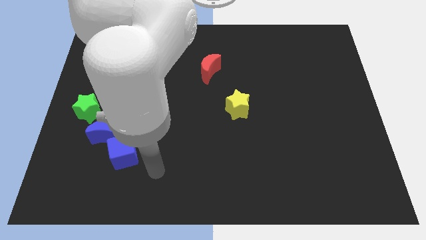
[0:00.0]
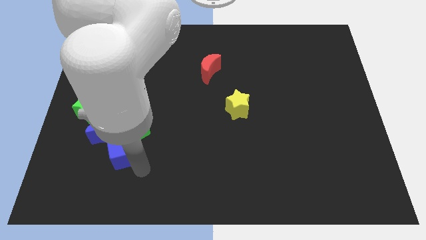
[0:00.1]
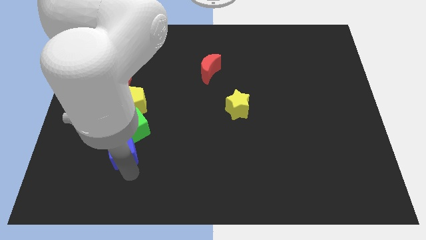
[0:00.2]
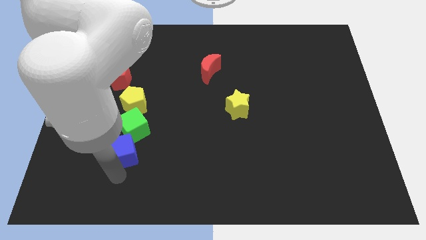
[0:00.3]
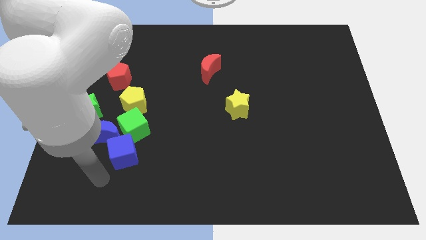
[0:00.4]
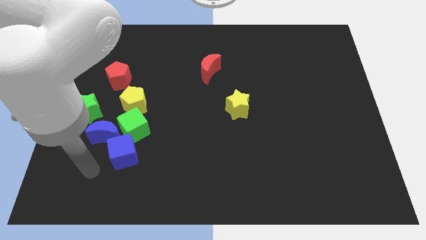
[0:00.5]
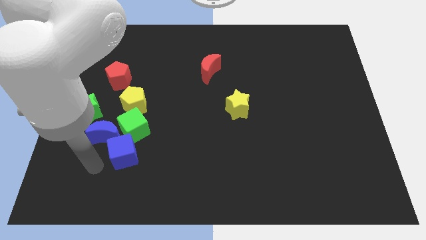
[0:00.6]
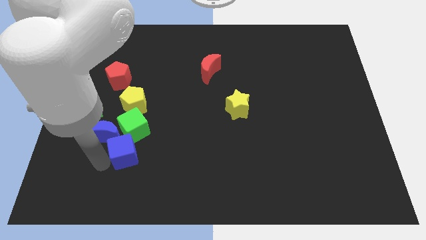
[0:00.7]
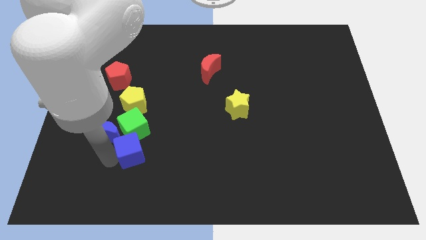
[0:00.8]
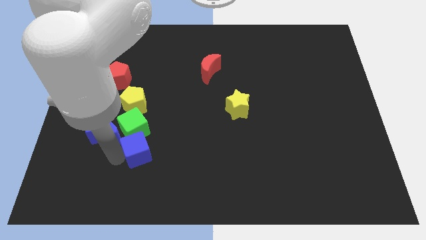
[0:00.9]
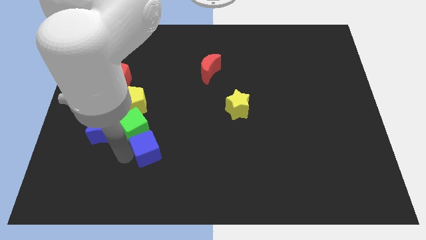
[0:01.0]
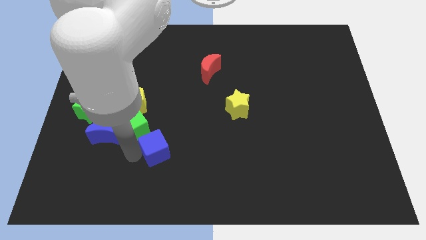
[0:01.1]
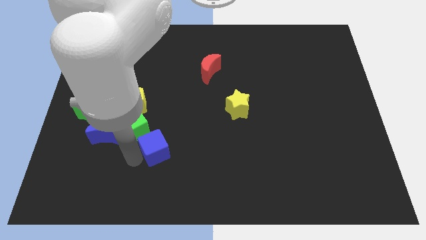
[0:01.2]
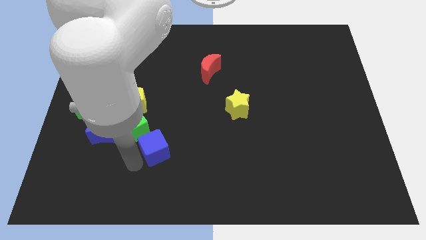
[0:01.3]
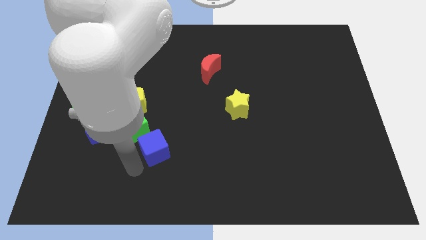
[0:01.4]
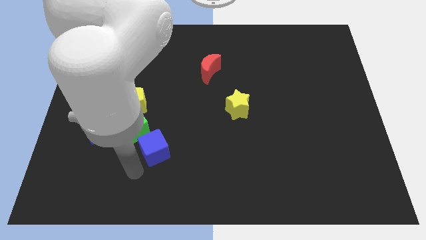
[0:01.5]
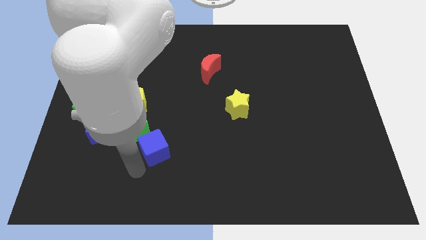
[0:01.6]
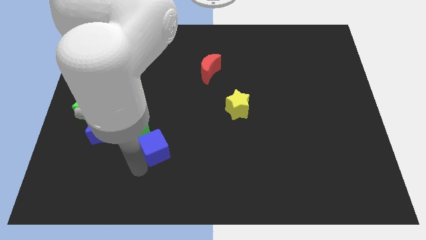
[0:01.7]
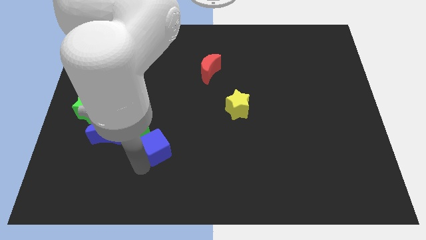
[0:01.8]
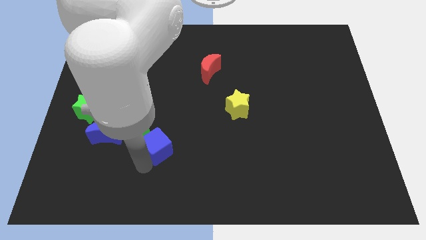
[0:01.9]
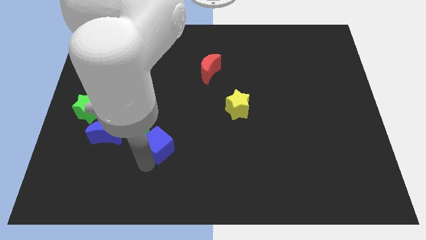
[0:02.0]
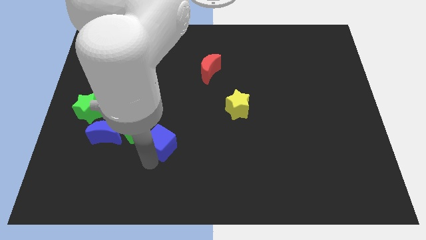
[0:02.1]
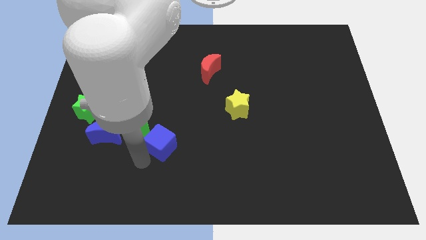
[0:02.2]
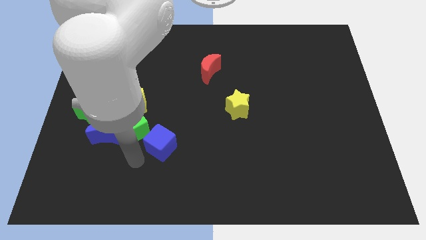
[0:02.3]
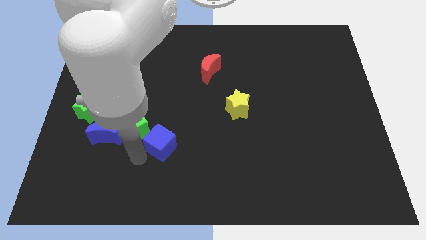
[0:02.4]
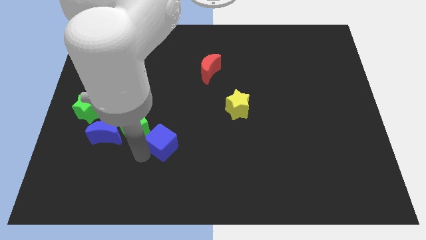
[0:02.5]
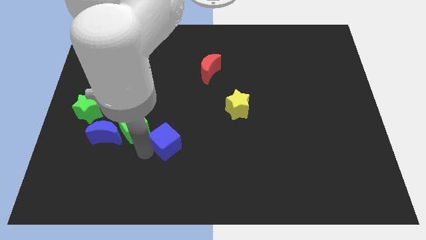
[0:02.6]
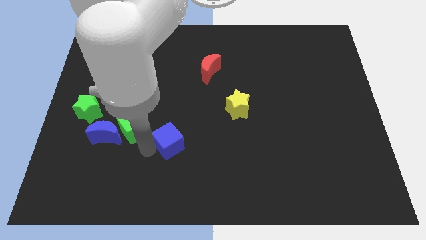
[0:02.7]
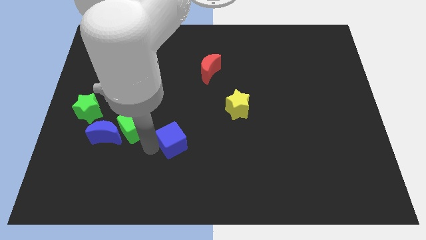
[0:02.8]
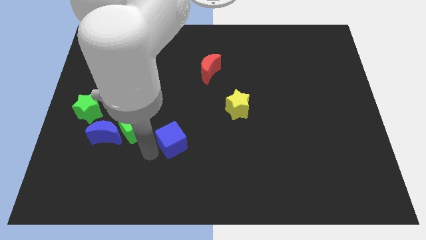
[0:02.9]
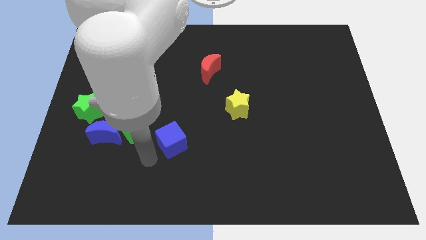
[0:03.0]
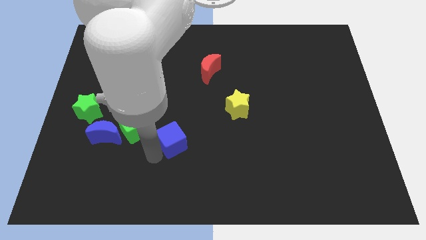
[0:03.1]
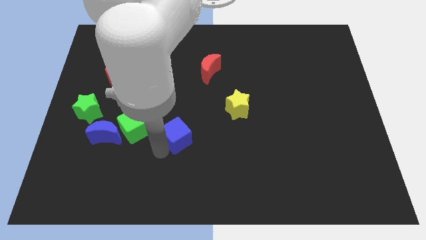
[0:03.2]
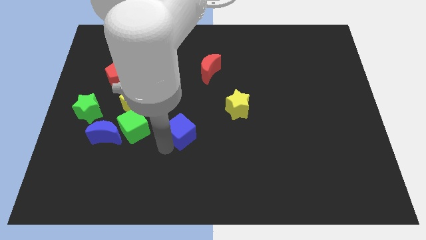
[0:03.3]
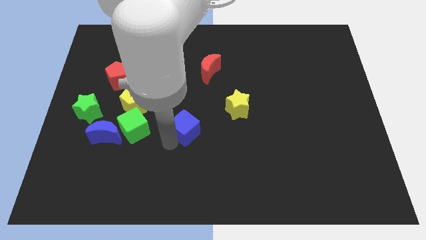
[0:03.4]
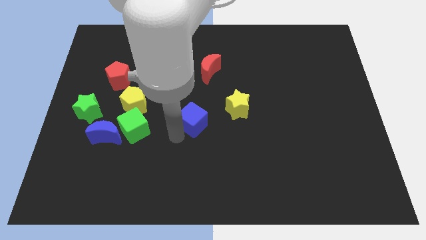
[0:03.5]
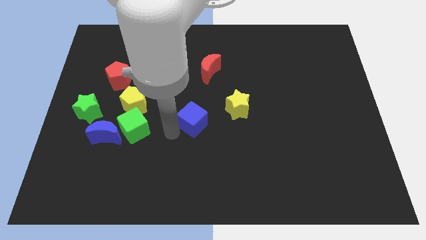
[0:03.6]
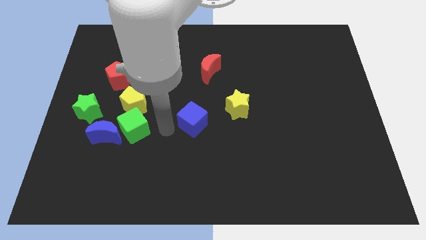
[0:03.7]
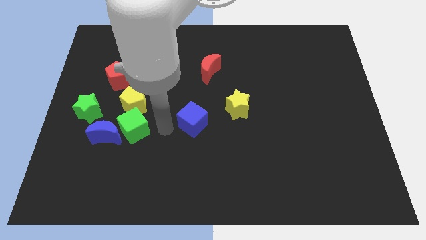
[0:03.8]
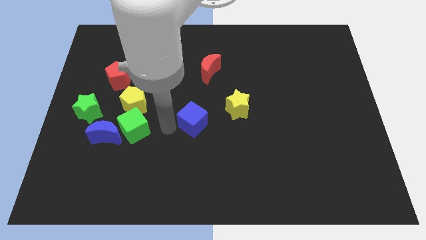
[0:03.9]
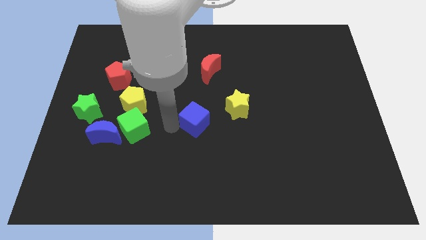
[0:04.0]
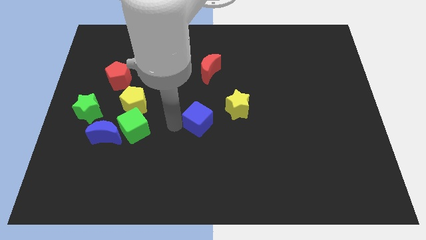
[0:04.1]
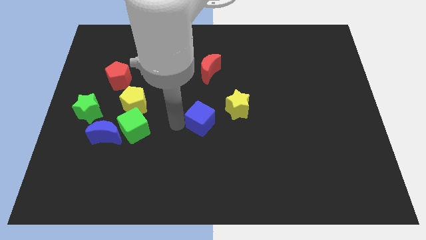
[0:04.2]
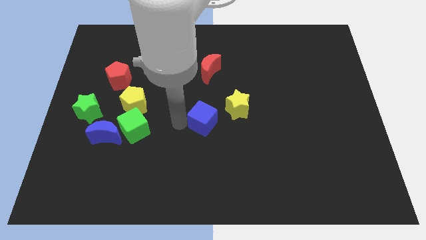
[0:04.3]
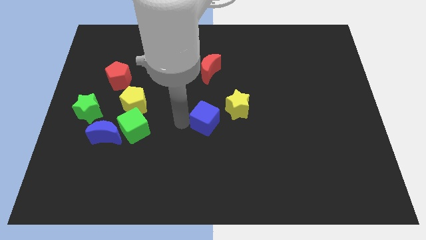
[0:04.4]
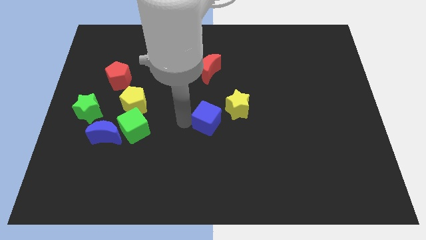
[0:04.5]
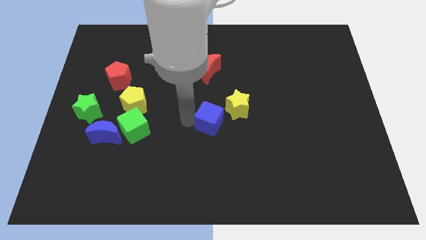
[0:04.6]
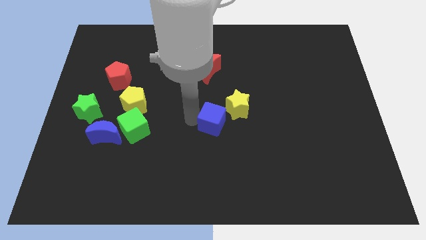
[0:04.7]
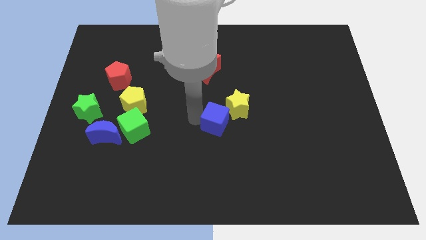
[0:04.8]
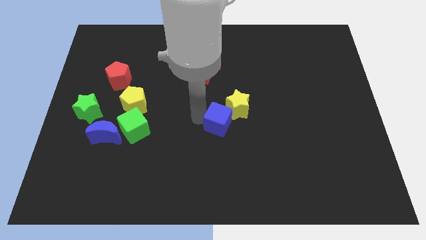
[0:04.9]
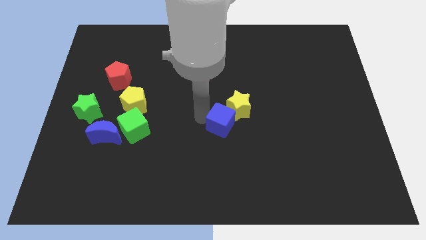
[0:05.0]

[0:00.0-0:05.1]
slide the blue cube towards the yellow star

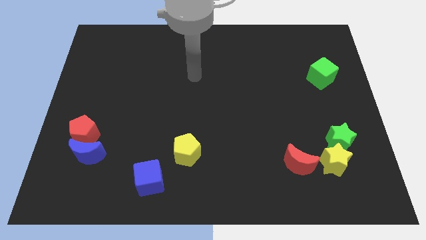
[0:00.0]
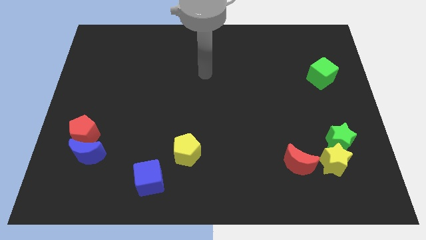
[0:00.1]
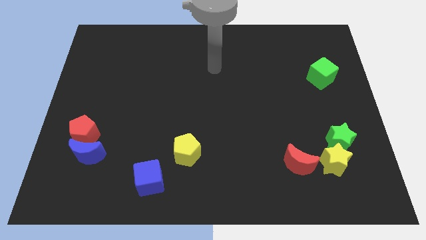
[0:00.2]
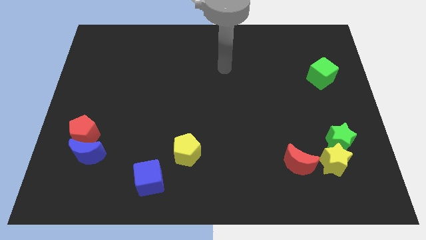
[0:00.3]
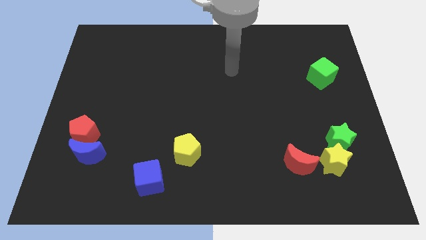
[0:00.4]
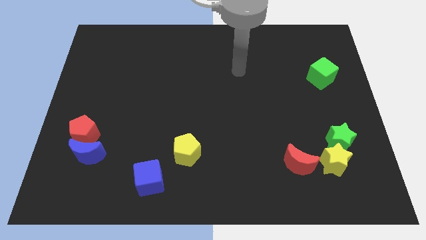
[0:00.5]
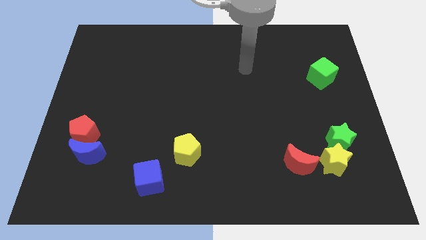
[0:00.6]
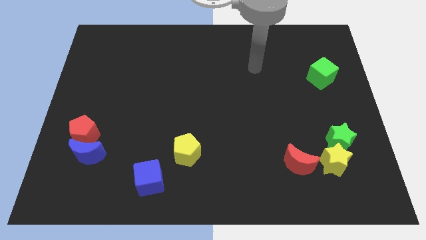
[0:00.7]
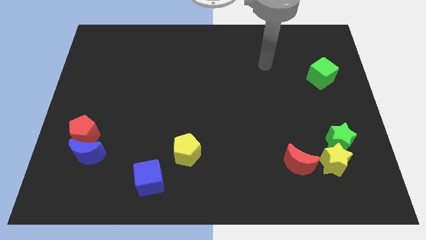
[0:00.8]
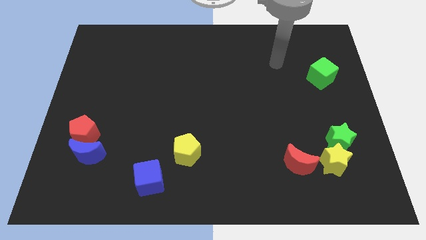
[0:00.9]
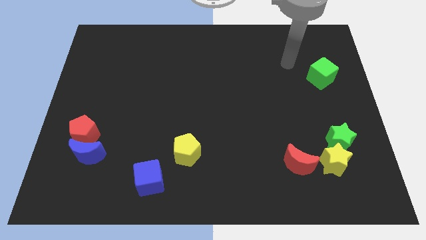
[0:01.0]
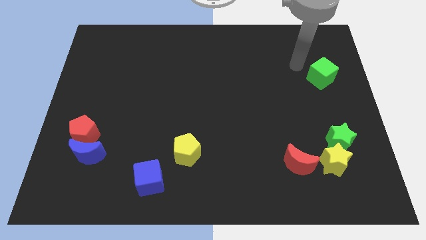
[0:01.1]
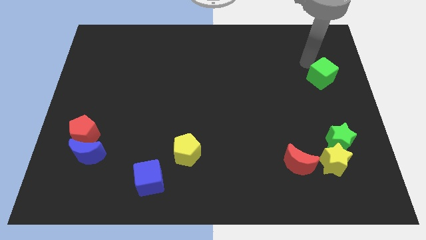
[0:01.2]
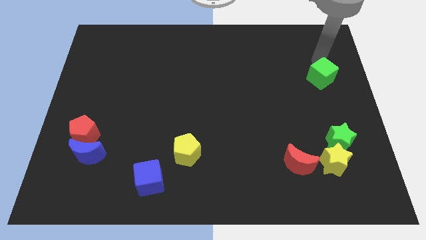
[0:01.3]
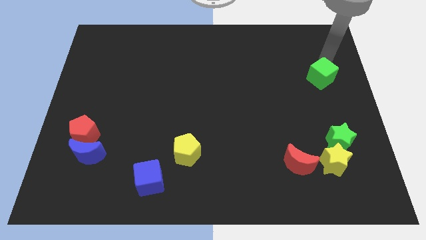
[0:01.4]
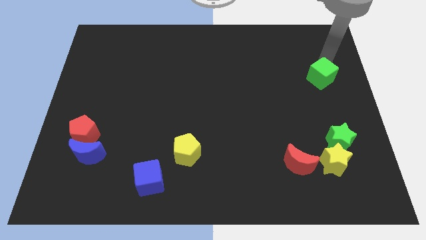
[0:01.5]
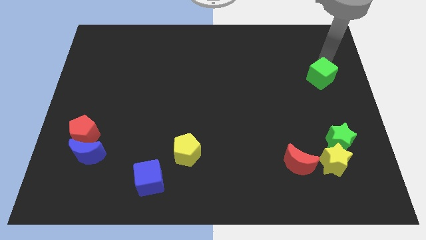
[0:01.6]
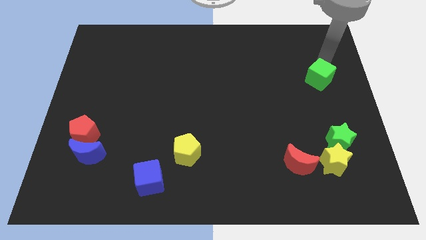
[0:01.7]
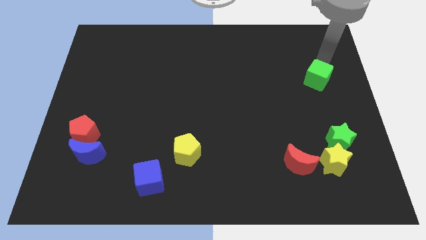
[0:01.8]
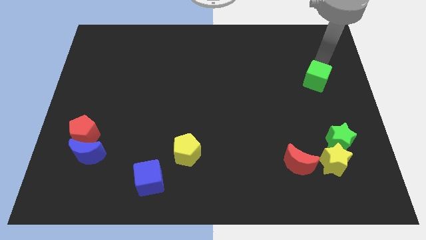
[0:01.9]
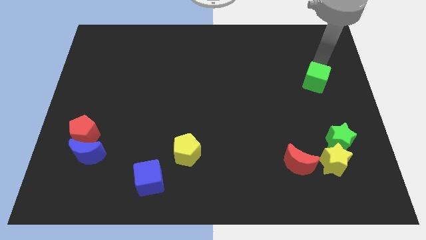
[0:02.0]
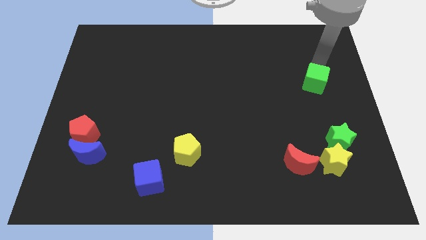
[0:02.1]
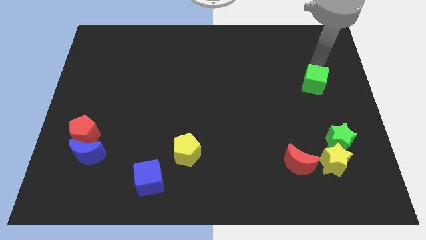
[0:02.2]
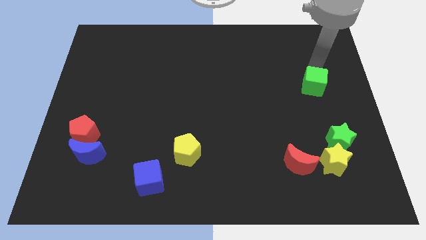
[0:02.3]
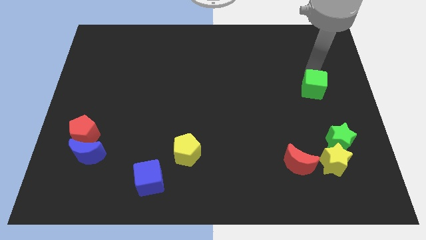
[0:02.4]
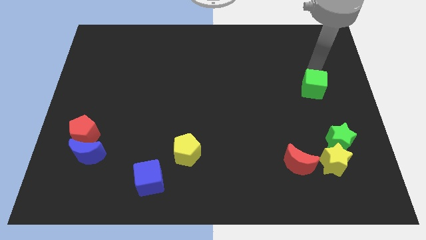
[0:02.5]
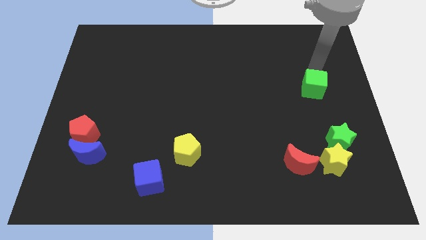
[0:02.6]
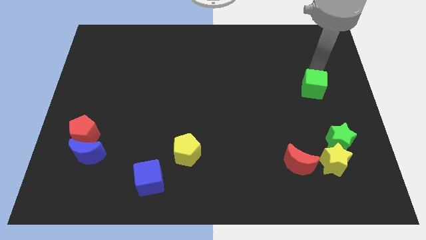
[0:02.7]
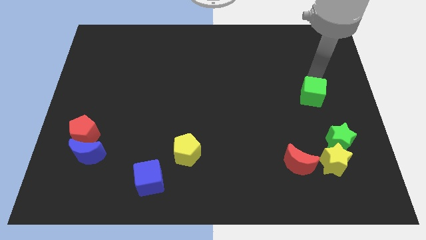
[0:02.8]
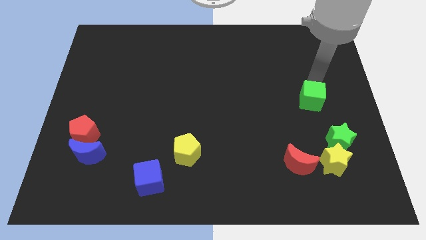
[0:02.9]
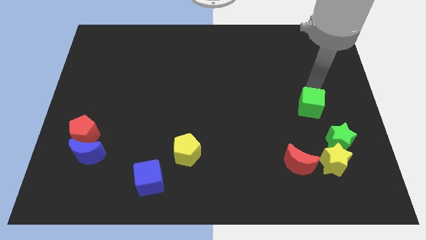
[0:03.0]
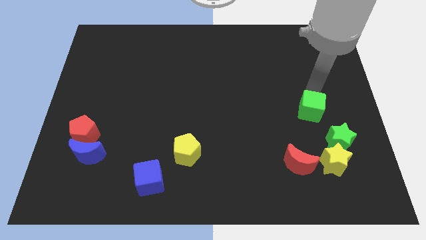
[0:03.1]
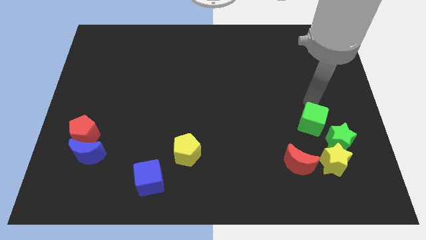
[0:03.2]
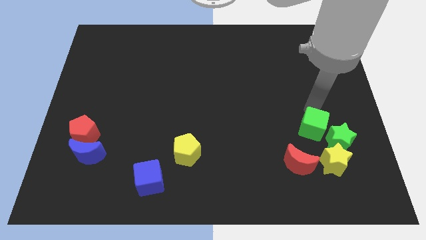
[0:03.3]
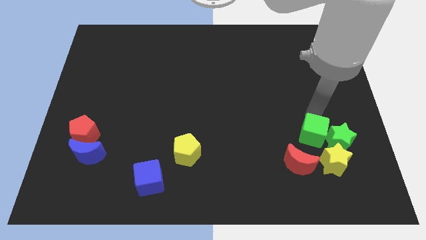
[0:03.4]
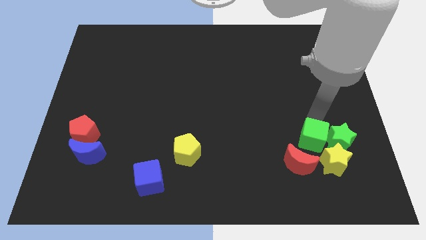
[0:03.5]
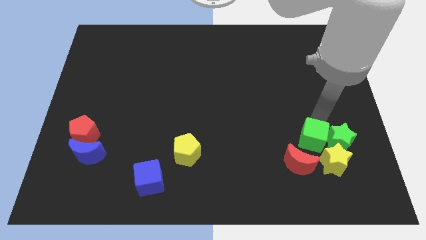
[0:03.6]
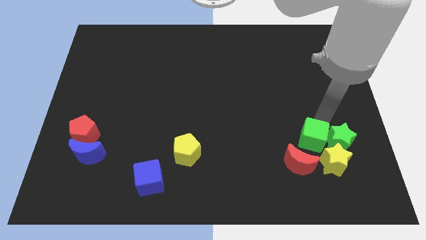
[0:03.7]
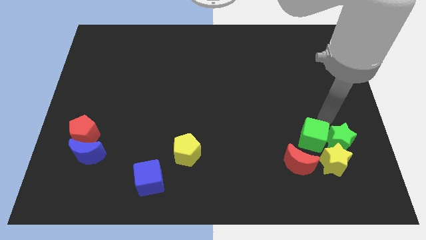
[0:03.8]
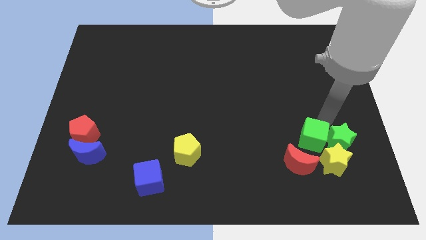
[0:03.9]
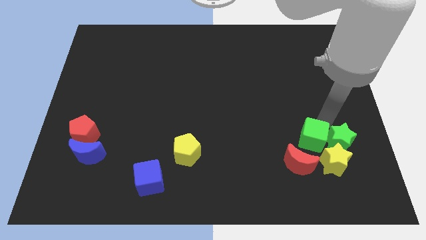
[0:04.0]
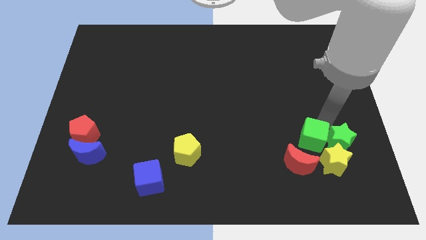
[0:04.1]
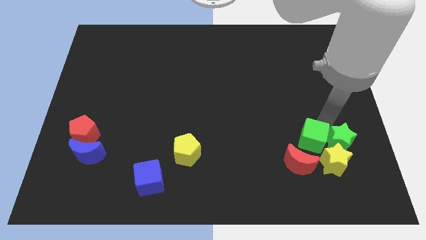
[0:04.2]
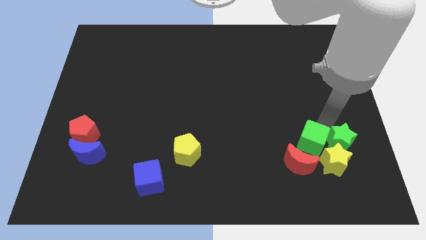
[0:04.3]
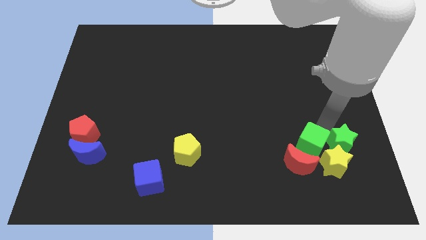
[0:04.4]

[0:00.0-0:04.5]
put the green cube next to the red moon
